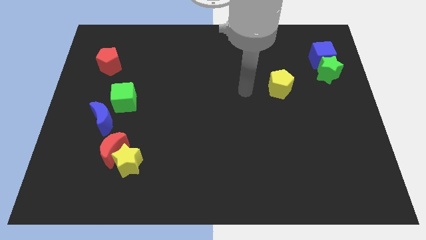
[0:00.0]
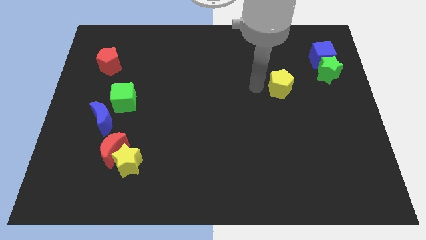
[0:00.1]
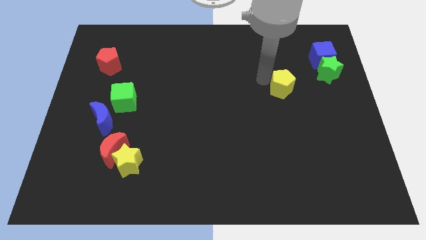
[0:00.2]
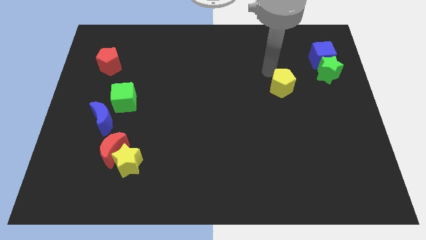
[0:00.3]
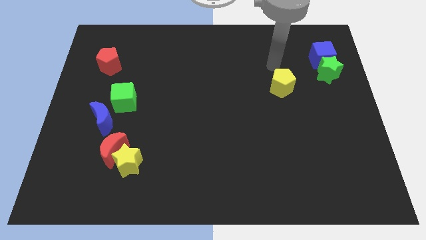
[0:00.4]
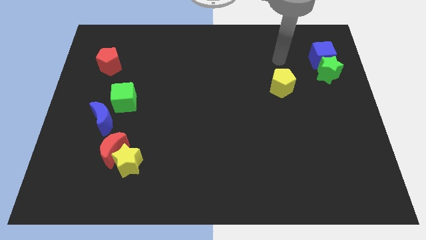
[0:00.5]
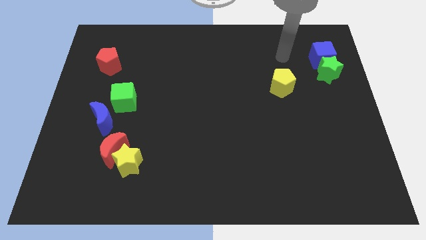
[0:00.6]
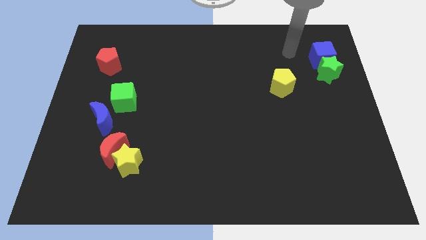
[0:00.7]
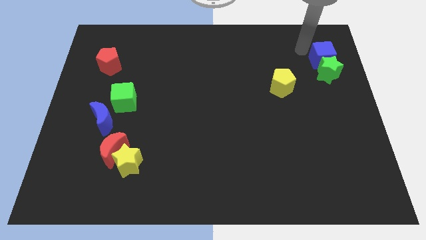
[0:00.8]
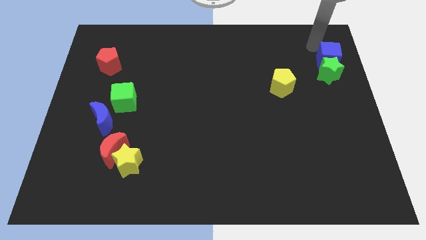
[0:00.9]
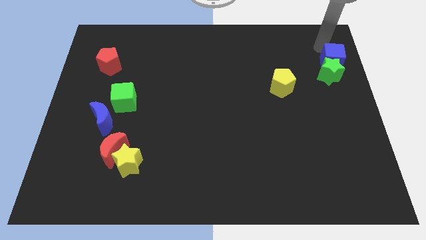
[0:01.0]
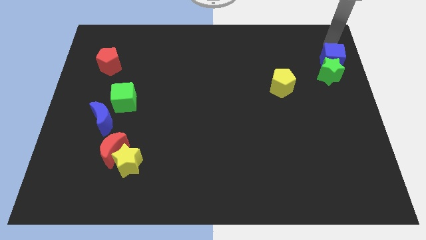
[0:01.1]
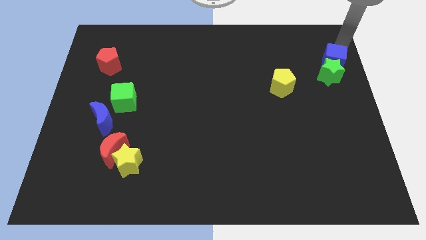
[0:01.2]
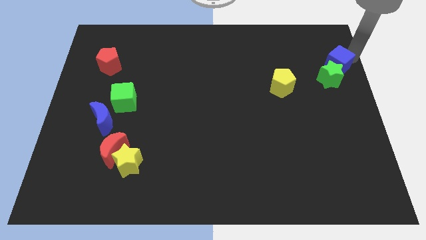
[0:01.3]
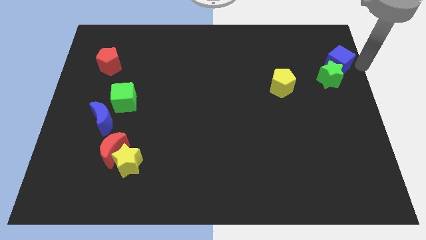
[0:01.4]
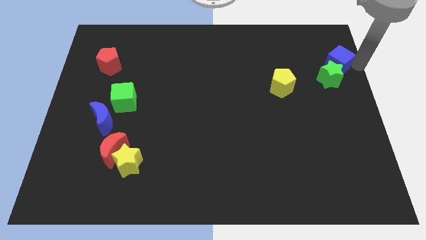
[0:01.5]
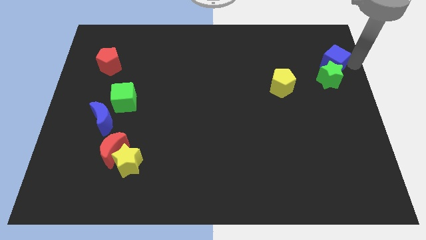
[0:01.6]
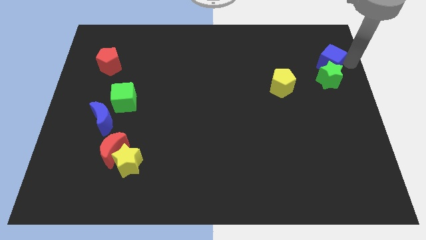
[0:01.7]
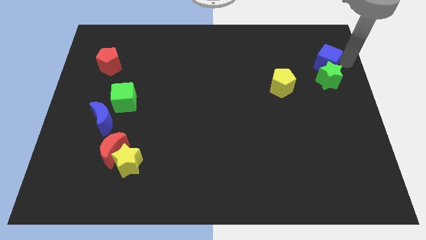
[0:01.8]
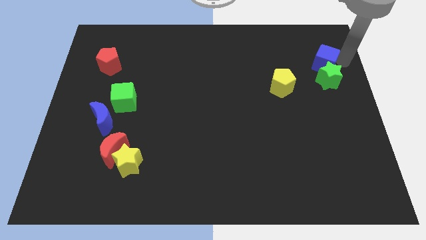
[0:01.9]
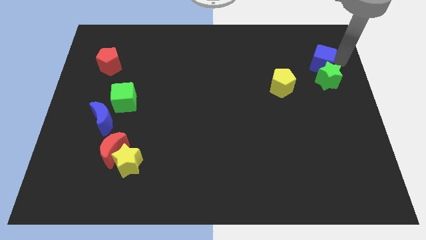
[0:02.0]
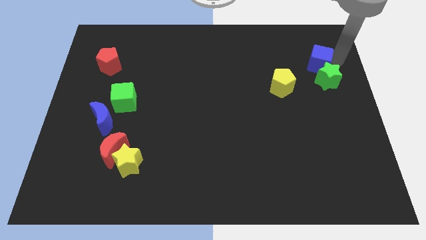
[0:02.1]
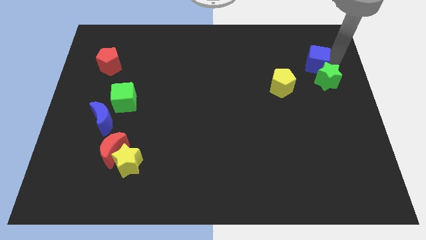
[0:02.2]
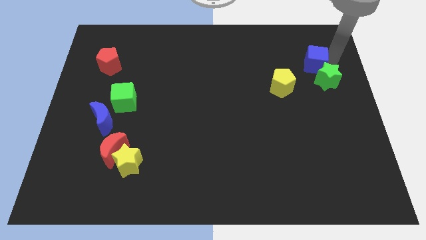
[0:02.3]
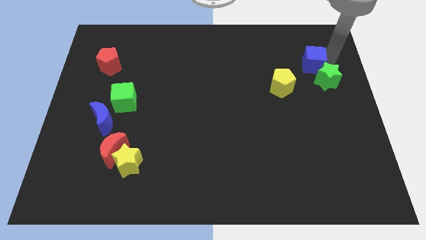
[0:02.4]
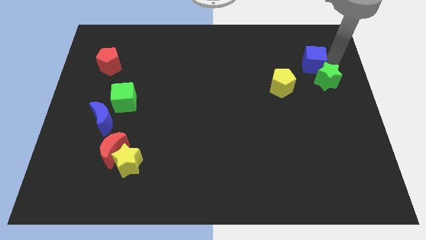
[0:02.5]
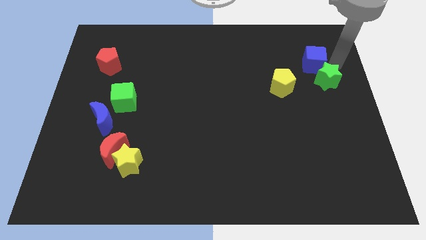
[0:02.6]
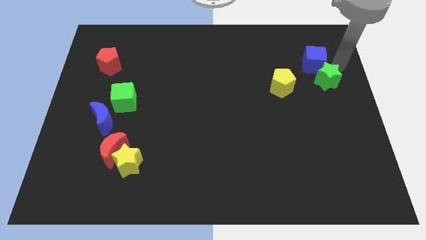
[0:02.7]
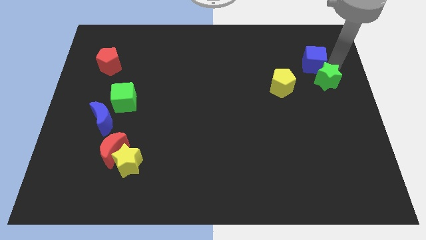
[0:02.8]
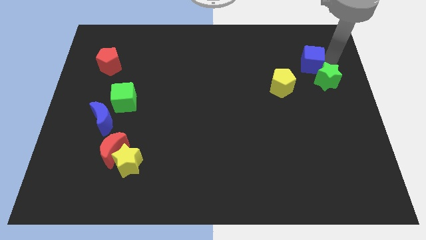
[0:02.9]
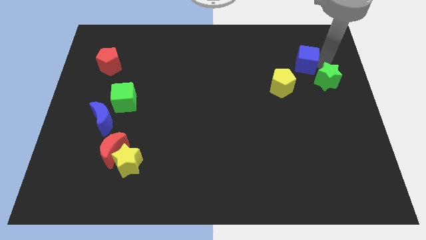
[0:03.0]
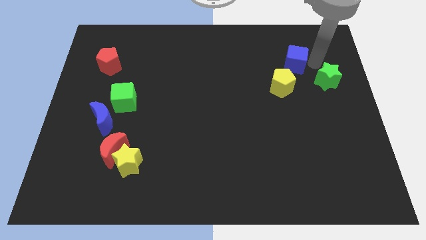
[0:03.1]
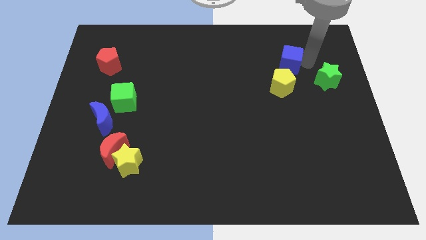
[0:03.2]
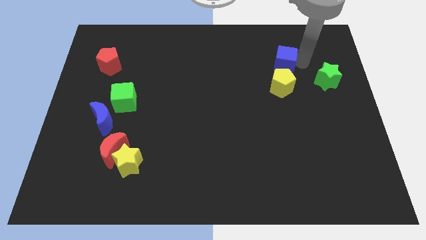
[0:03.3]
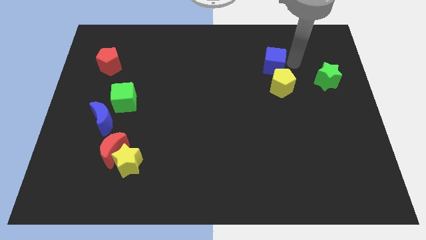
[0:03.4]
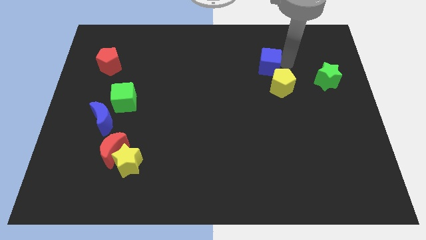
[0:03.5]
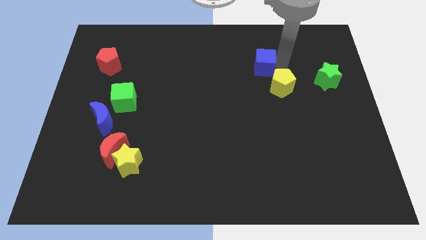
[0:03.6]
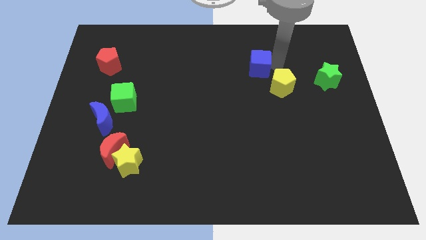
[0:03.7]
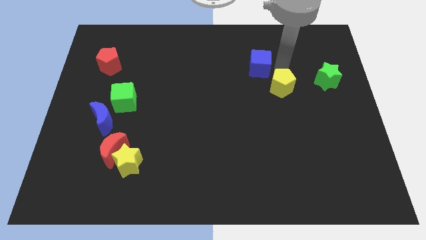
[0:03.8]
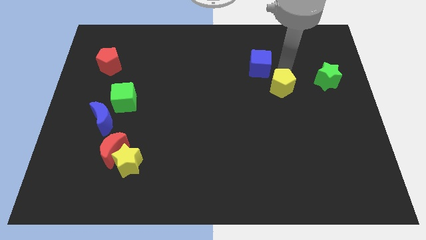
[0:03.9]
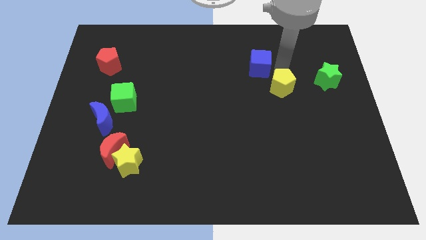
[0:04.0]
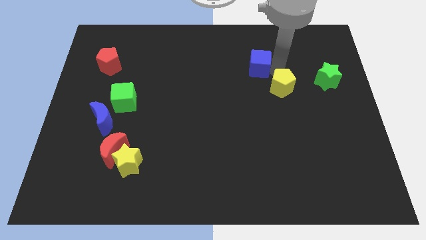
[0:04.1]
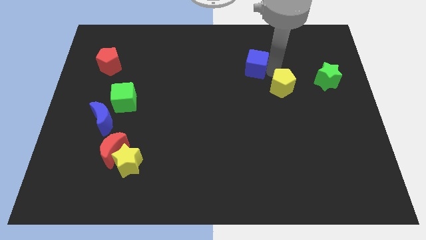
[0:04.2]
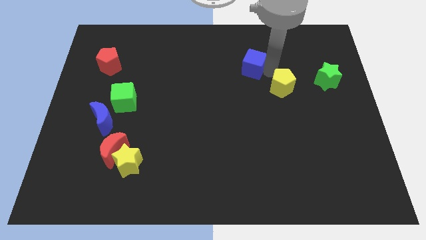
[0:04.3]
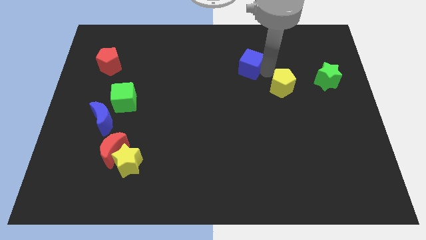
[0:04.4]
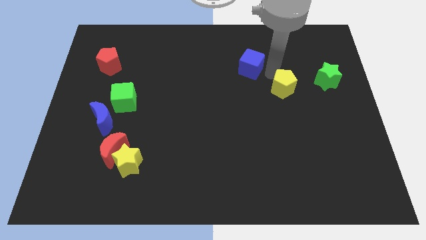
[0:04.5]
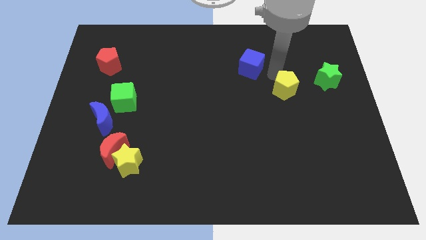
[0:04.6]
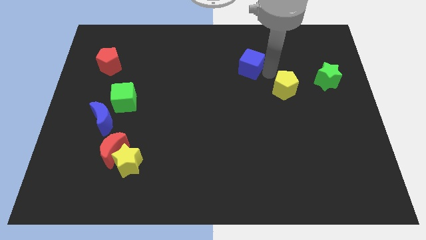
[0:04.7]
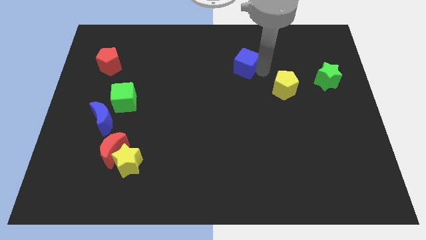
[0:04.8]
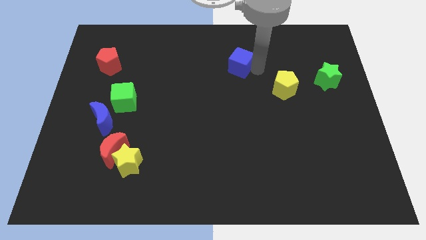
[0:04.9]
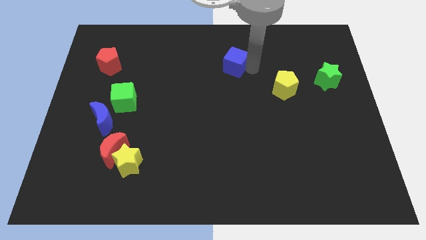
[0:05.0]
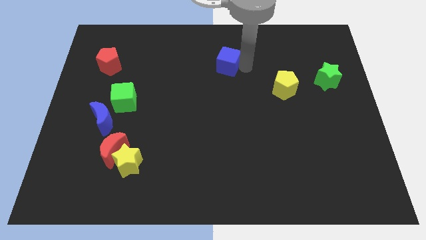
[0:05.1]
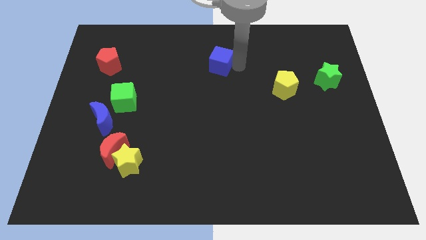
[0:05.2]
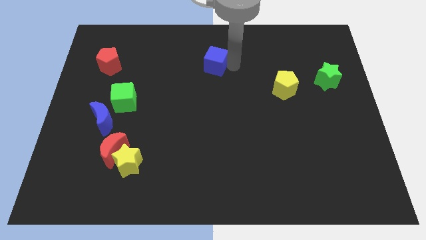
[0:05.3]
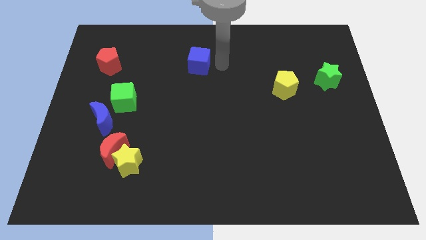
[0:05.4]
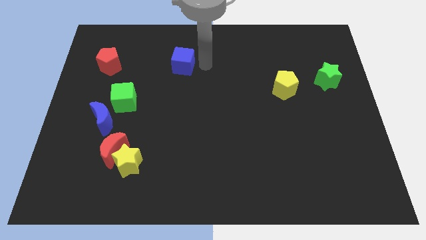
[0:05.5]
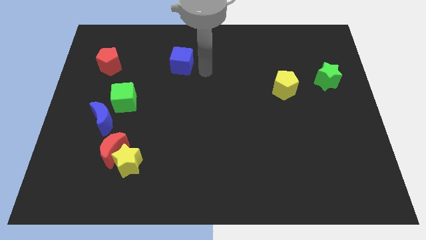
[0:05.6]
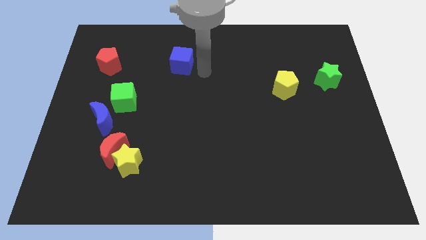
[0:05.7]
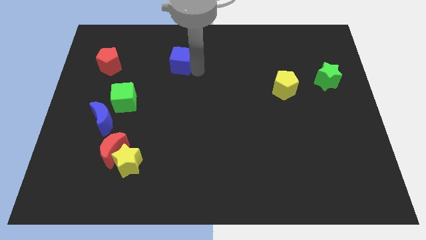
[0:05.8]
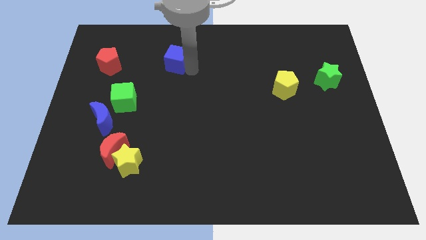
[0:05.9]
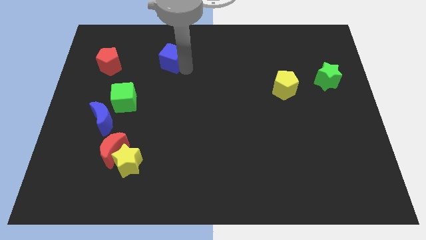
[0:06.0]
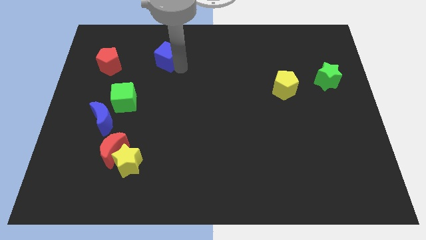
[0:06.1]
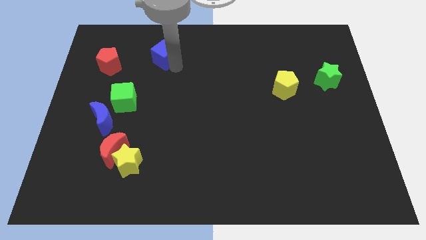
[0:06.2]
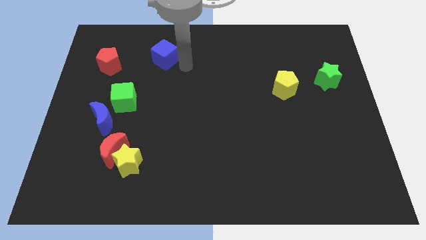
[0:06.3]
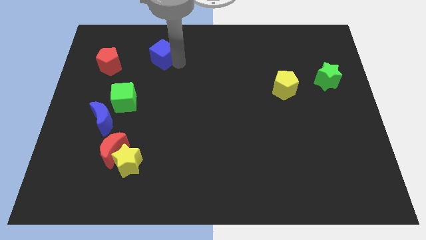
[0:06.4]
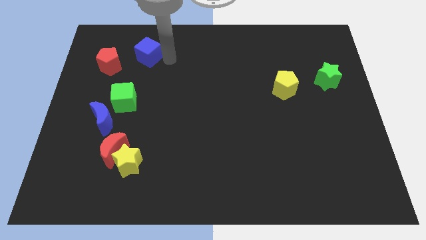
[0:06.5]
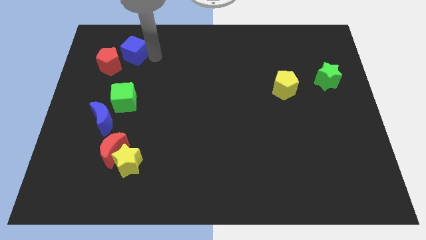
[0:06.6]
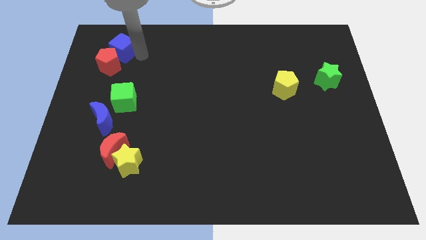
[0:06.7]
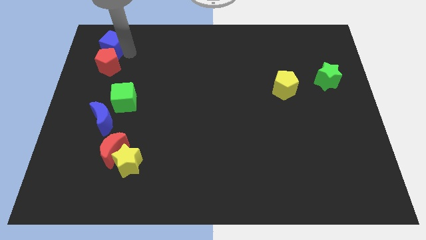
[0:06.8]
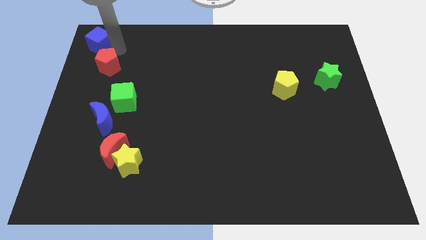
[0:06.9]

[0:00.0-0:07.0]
put the blue cube to the upper left corner
